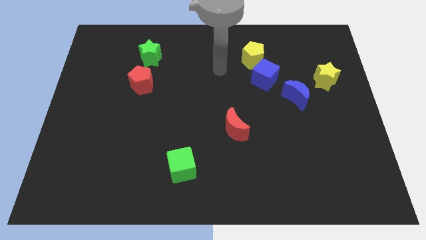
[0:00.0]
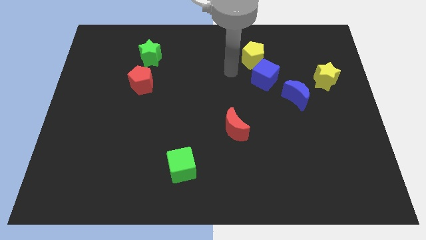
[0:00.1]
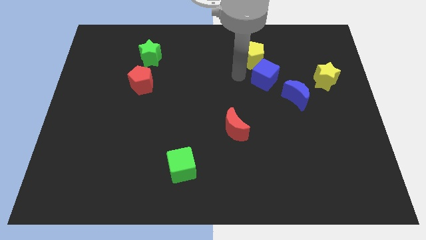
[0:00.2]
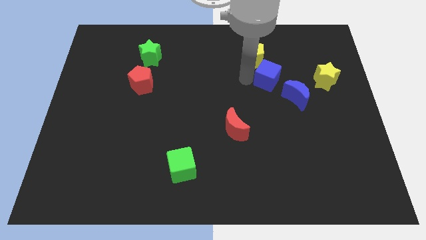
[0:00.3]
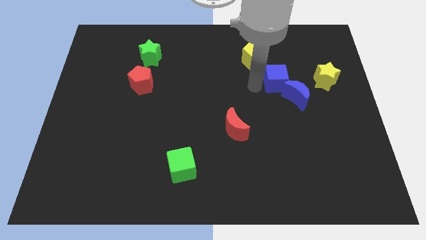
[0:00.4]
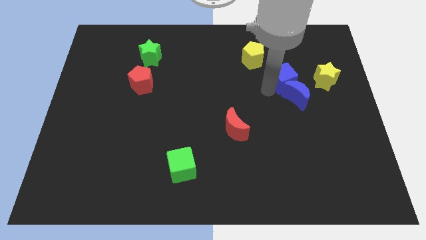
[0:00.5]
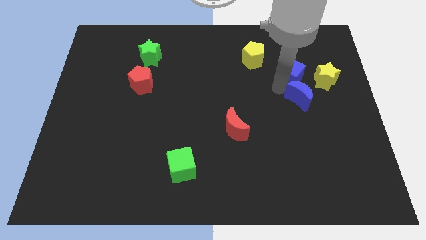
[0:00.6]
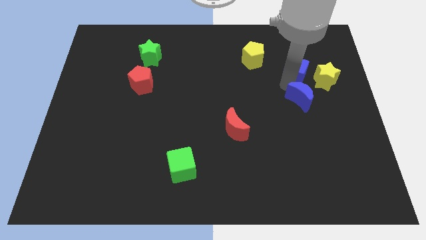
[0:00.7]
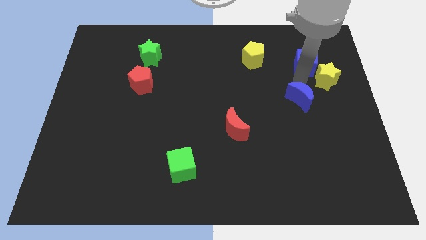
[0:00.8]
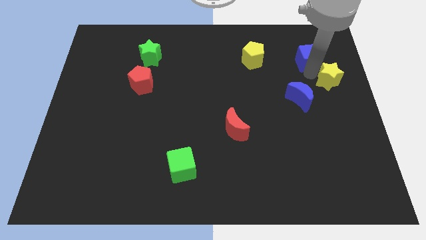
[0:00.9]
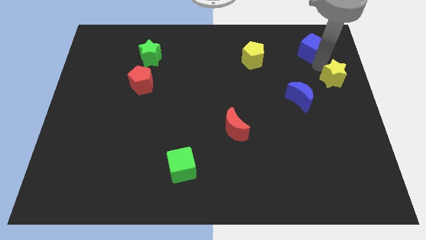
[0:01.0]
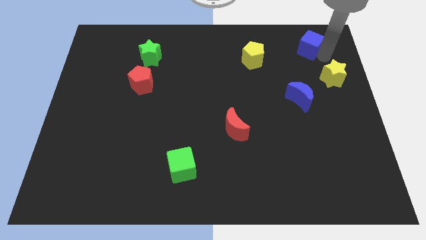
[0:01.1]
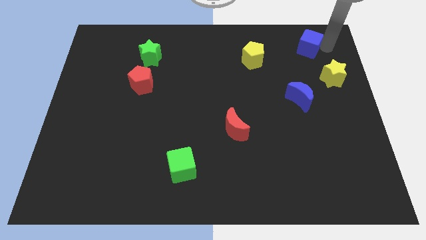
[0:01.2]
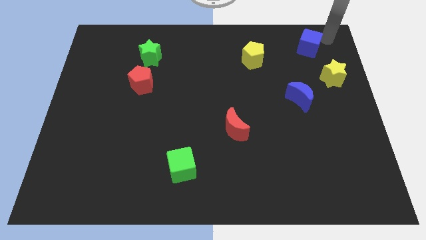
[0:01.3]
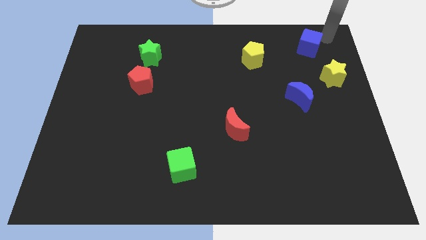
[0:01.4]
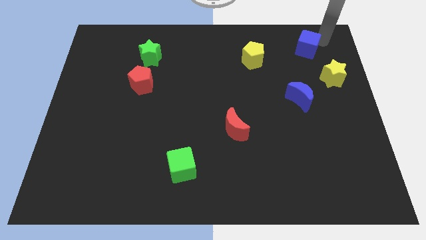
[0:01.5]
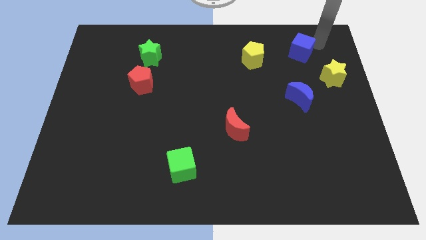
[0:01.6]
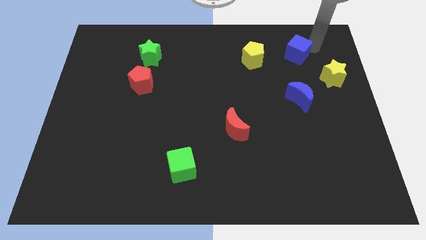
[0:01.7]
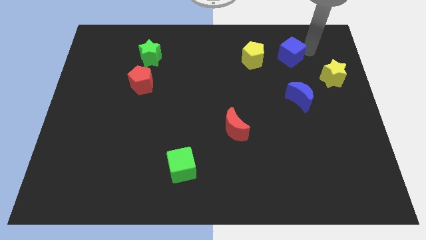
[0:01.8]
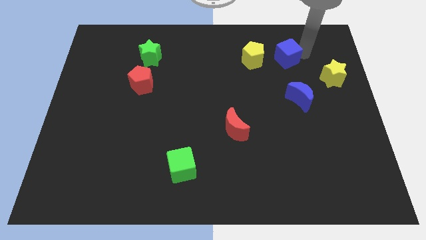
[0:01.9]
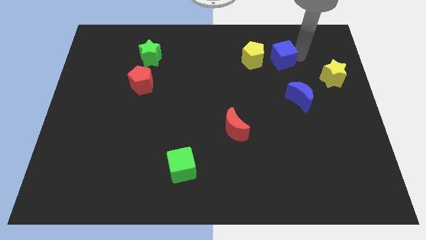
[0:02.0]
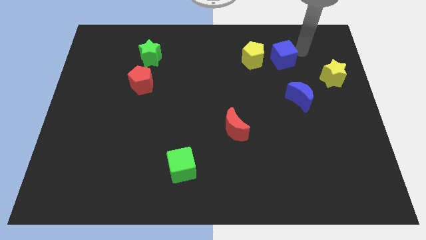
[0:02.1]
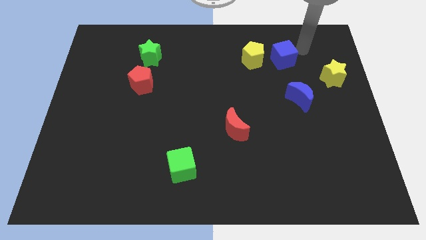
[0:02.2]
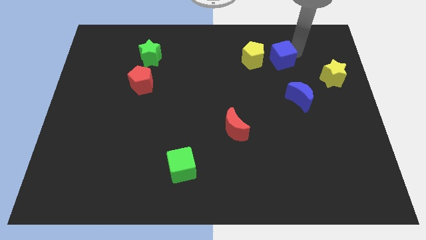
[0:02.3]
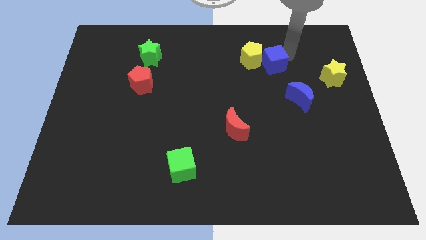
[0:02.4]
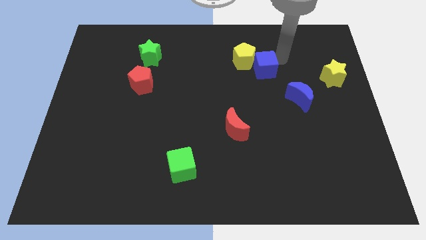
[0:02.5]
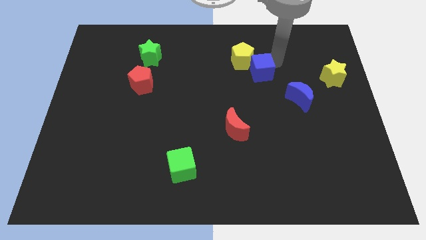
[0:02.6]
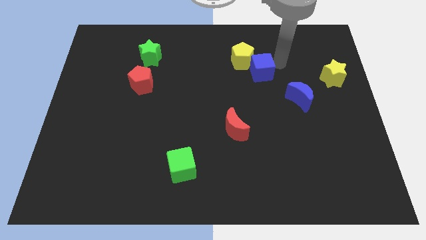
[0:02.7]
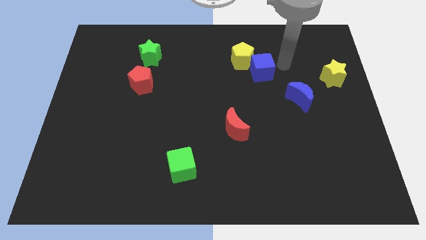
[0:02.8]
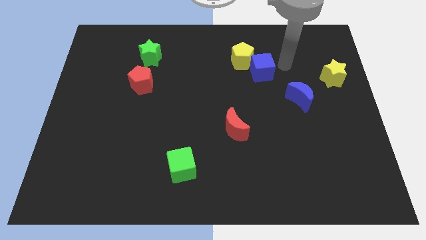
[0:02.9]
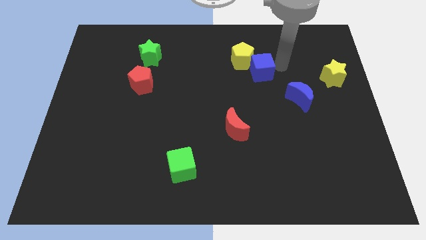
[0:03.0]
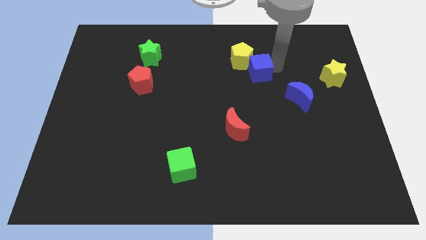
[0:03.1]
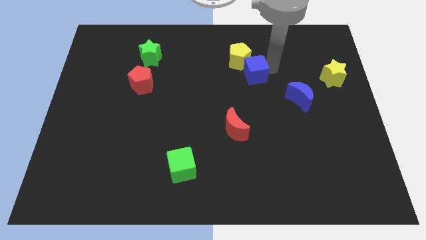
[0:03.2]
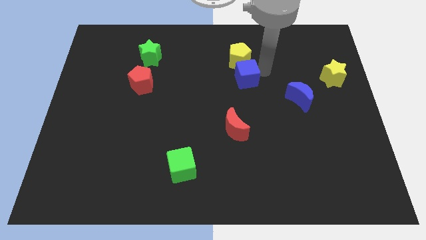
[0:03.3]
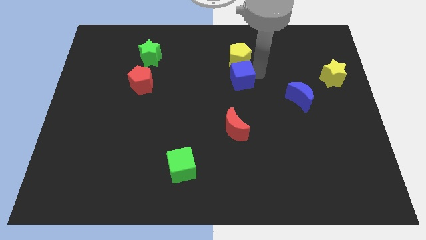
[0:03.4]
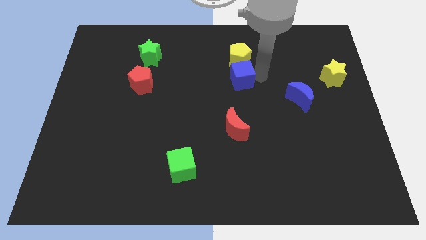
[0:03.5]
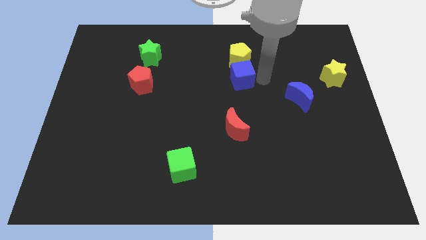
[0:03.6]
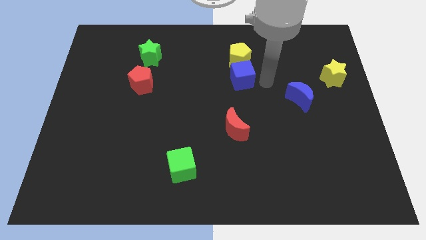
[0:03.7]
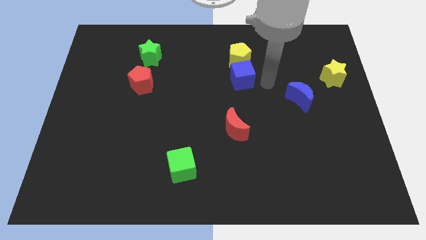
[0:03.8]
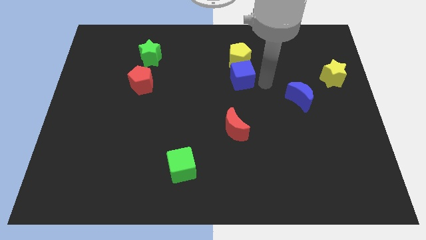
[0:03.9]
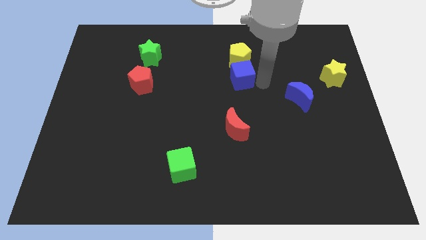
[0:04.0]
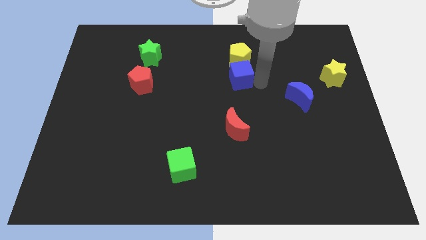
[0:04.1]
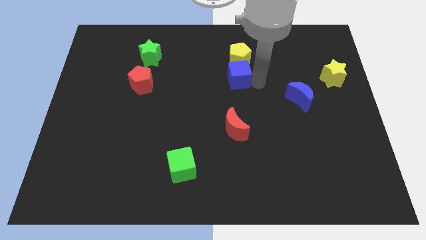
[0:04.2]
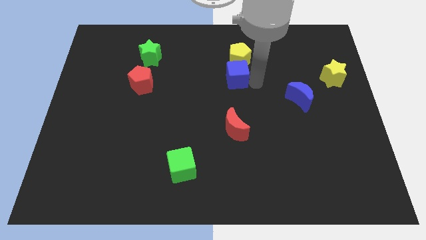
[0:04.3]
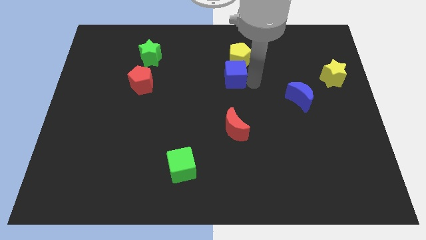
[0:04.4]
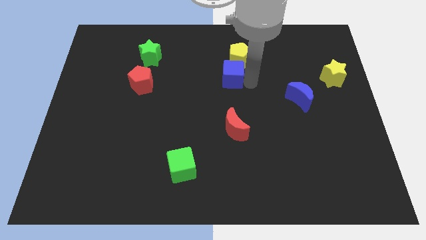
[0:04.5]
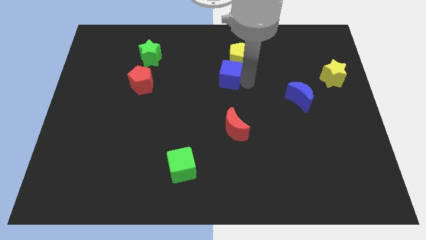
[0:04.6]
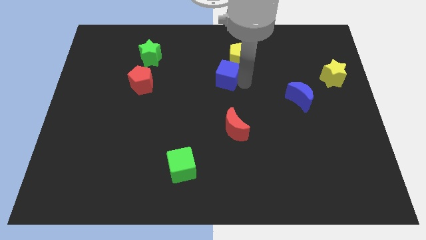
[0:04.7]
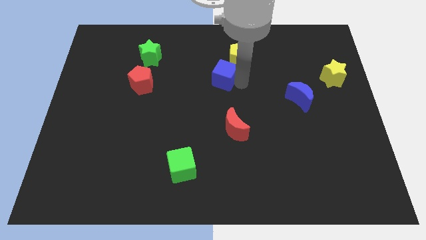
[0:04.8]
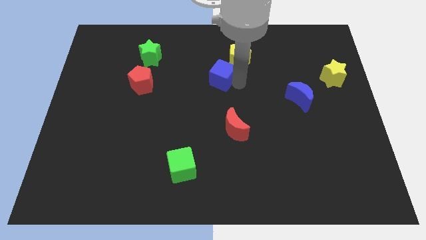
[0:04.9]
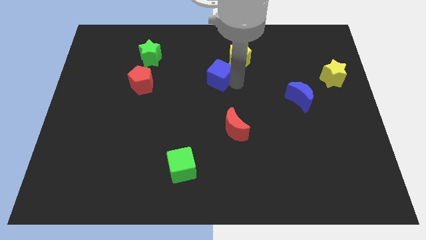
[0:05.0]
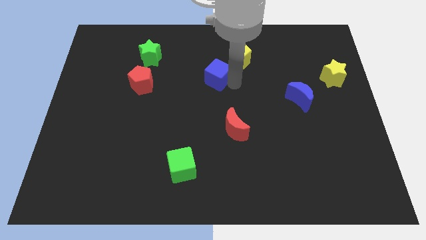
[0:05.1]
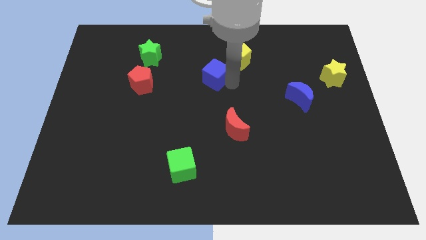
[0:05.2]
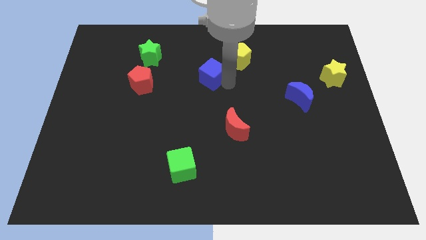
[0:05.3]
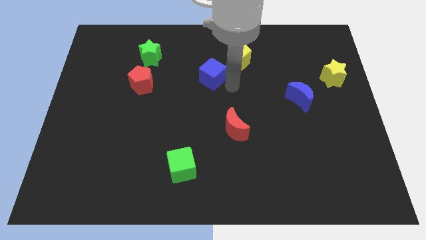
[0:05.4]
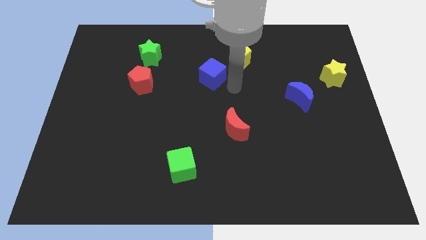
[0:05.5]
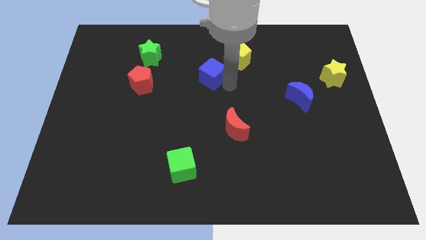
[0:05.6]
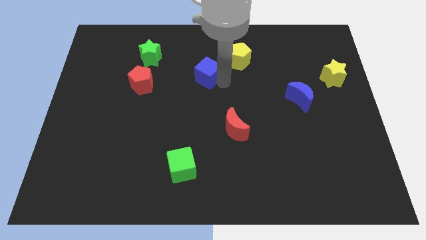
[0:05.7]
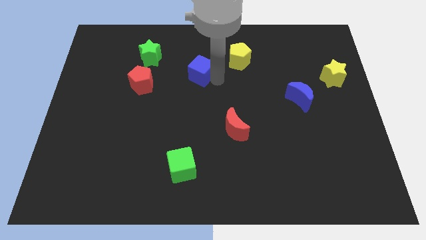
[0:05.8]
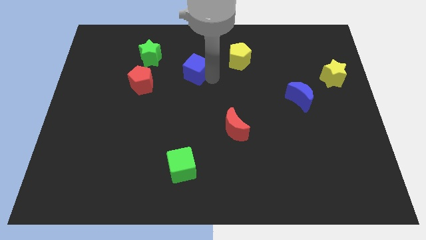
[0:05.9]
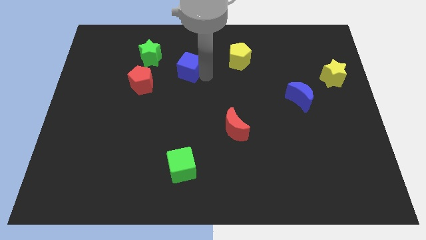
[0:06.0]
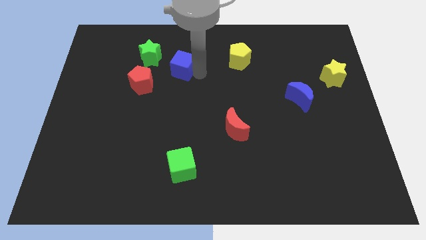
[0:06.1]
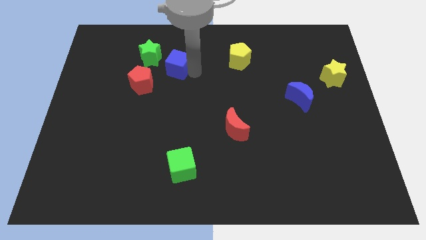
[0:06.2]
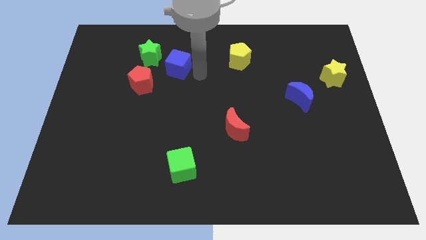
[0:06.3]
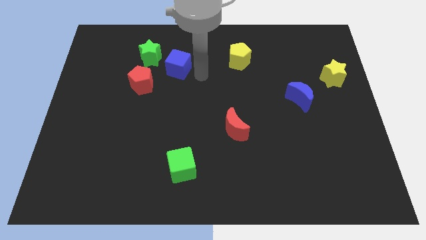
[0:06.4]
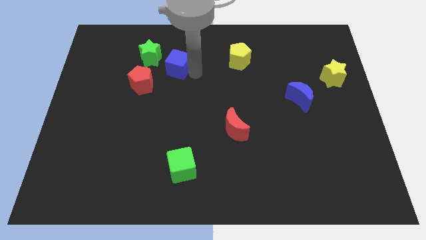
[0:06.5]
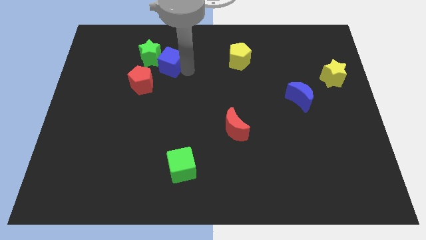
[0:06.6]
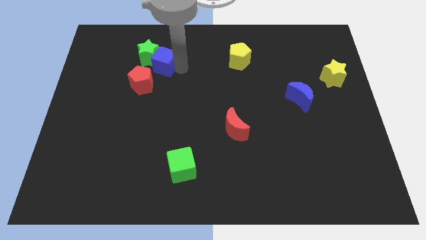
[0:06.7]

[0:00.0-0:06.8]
put the blue cube next to the green star

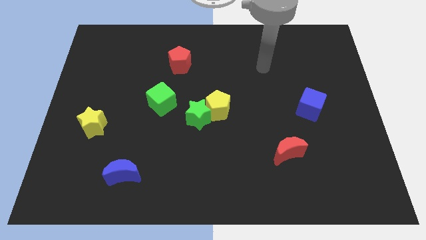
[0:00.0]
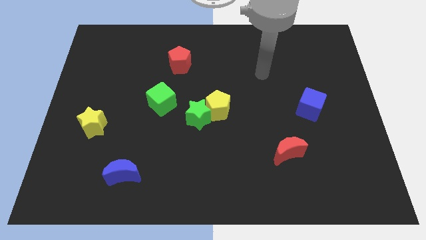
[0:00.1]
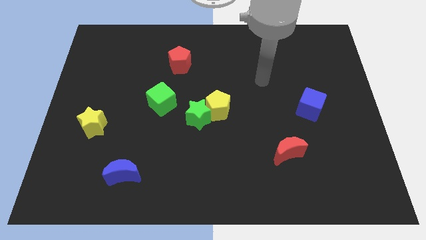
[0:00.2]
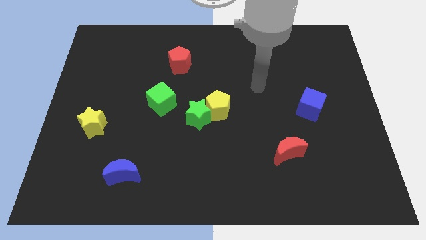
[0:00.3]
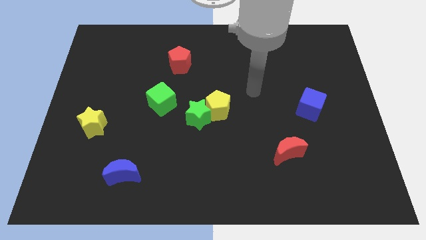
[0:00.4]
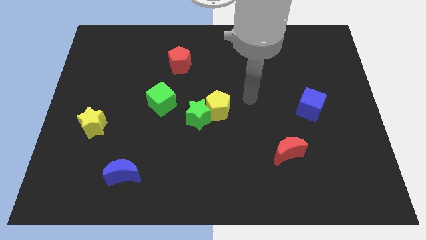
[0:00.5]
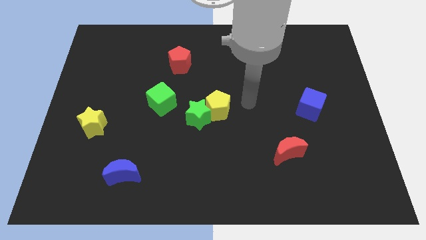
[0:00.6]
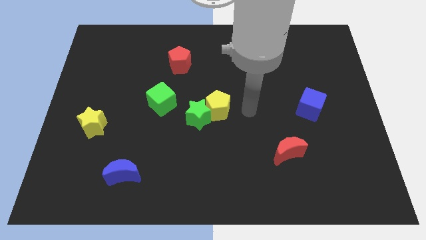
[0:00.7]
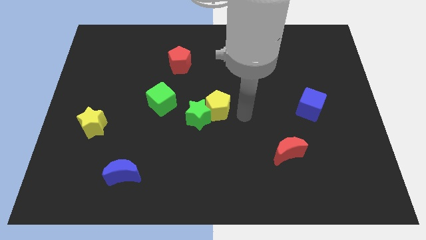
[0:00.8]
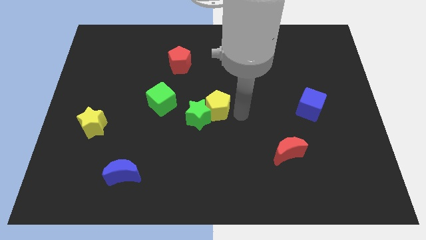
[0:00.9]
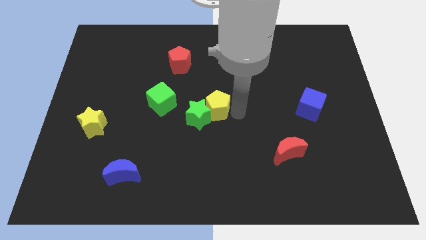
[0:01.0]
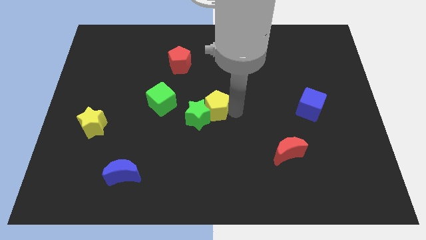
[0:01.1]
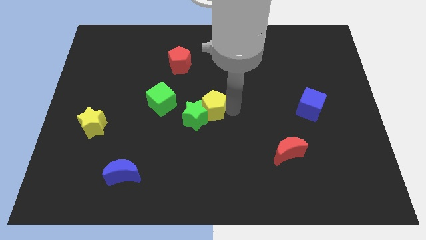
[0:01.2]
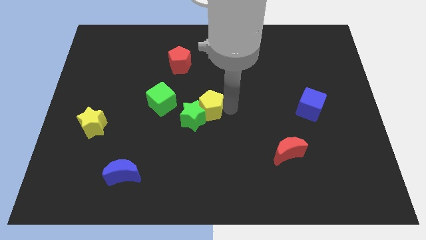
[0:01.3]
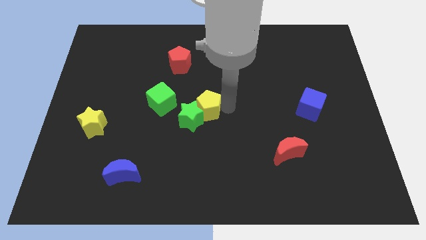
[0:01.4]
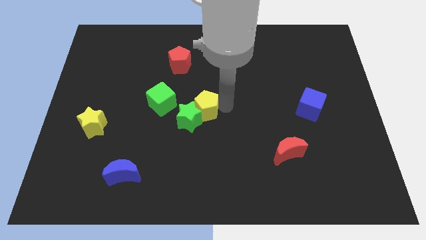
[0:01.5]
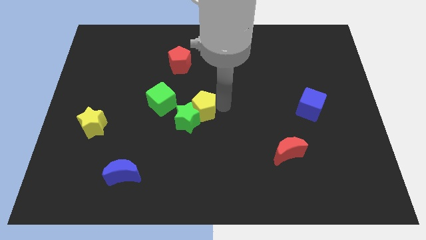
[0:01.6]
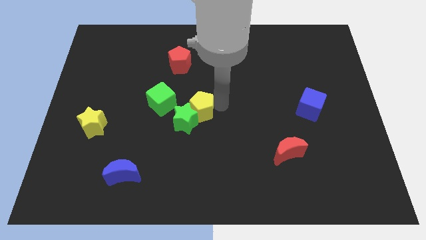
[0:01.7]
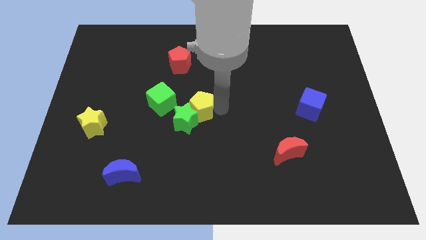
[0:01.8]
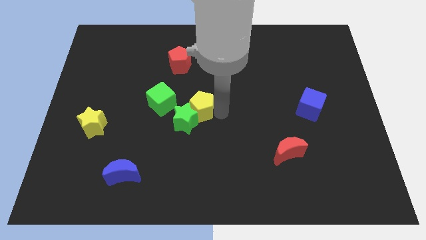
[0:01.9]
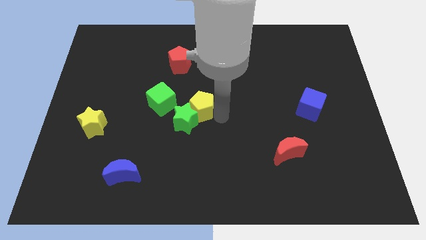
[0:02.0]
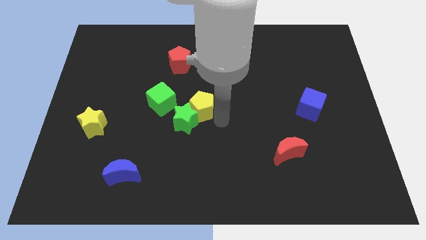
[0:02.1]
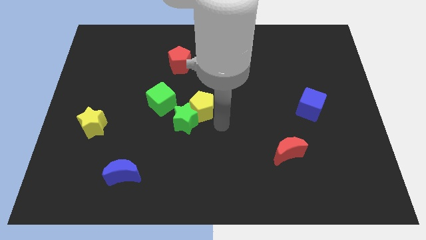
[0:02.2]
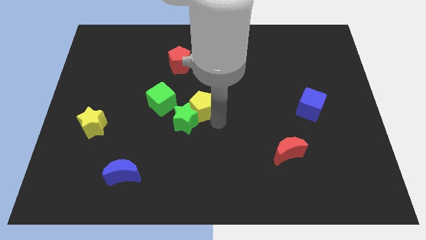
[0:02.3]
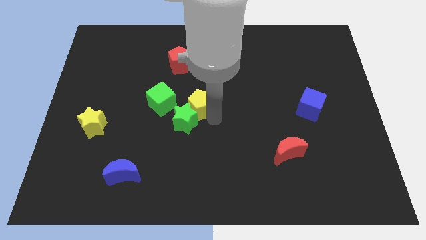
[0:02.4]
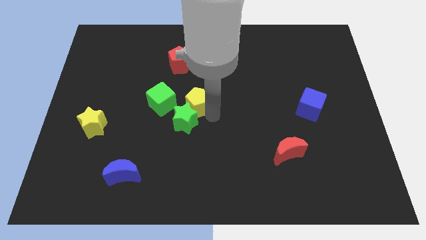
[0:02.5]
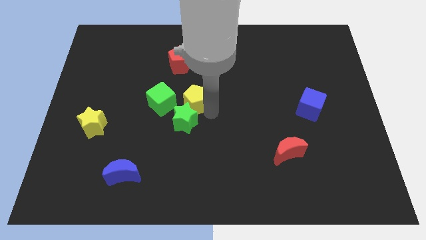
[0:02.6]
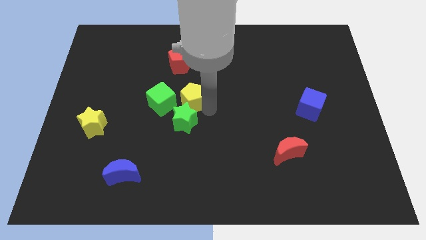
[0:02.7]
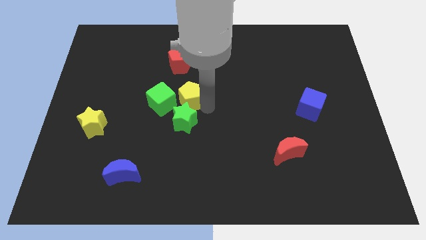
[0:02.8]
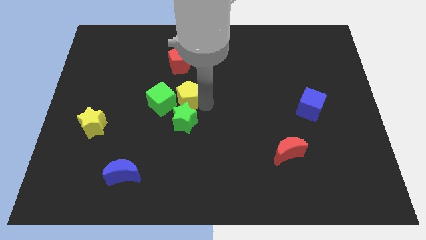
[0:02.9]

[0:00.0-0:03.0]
move the yellow pentagon towards the green cube
